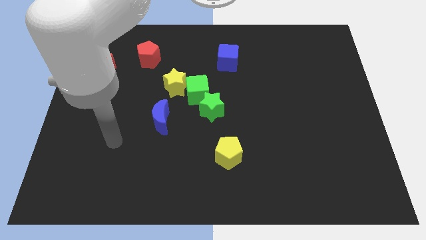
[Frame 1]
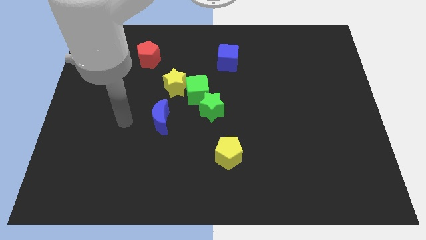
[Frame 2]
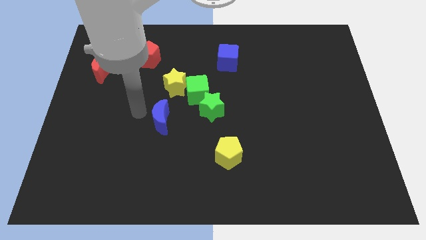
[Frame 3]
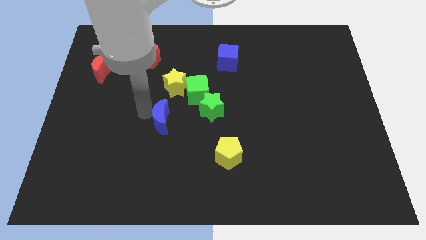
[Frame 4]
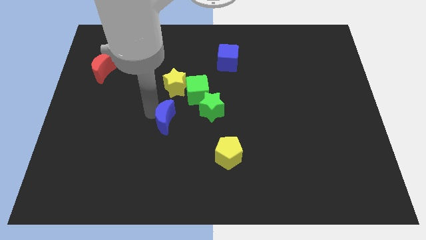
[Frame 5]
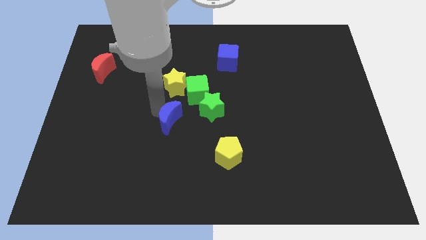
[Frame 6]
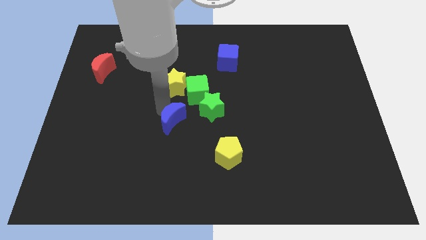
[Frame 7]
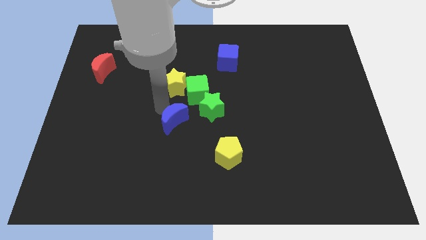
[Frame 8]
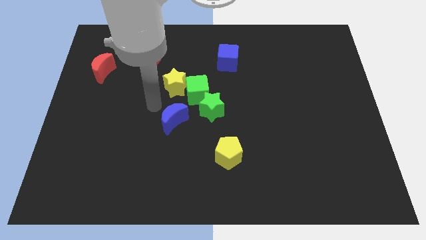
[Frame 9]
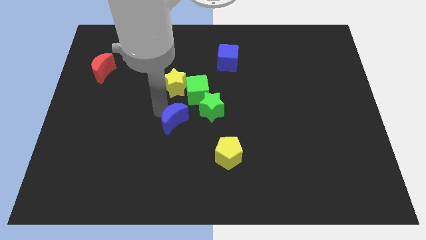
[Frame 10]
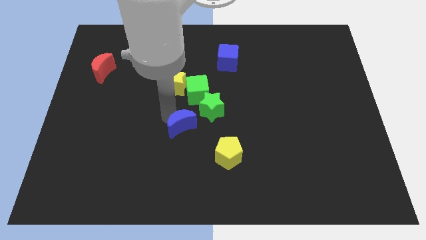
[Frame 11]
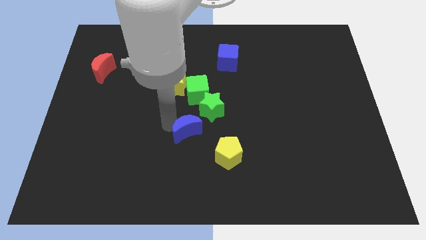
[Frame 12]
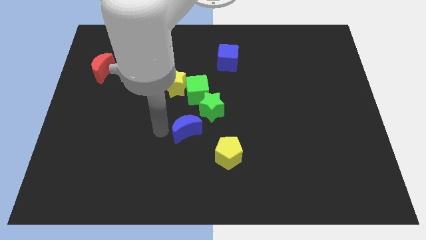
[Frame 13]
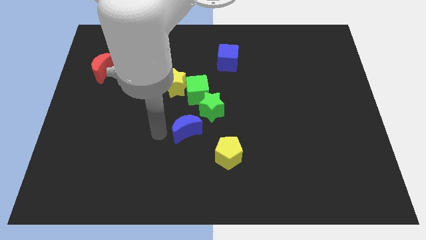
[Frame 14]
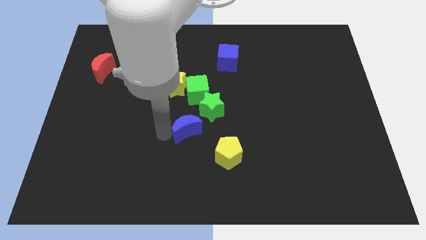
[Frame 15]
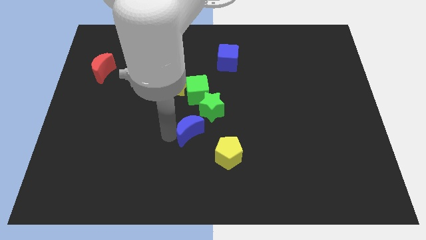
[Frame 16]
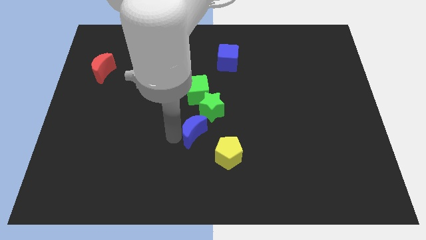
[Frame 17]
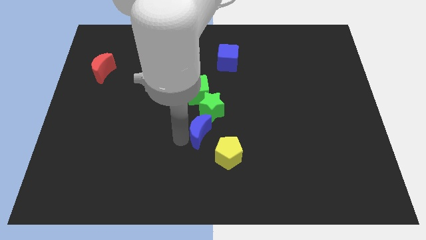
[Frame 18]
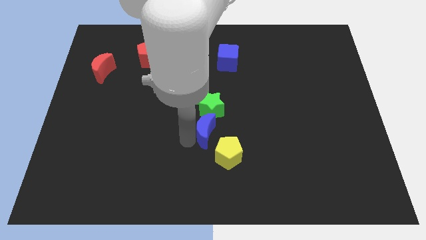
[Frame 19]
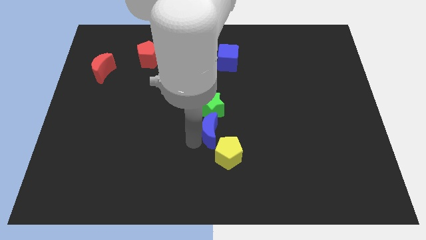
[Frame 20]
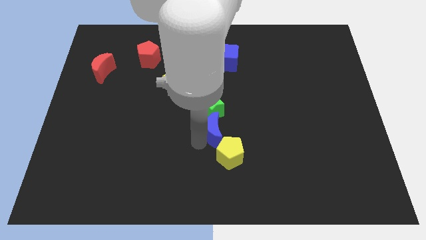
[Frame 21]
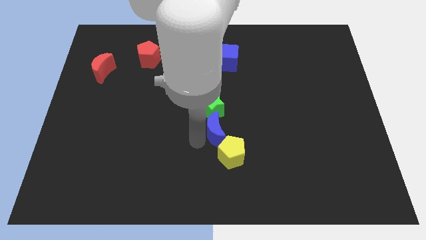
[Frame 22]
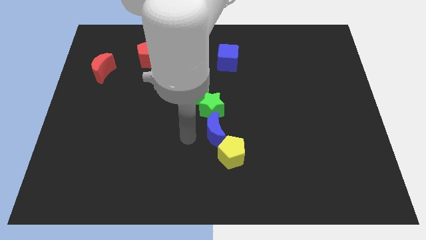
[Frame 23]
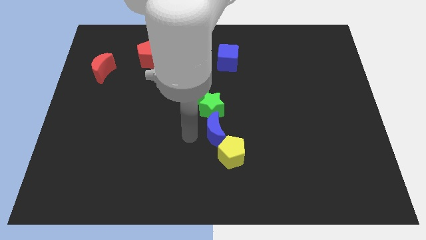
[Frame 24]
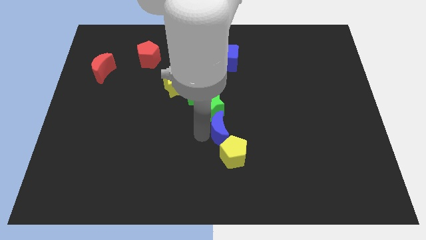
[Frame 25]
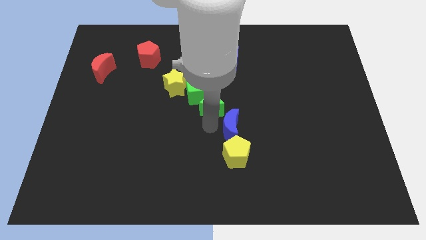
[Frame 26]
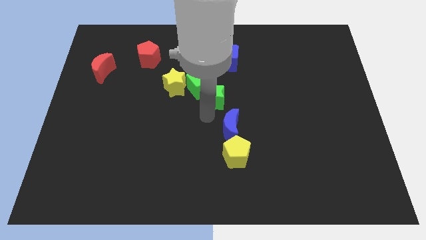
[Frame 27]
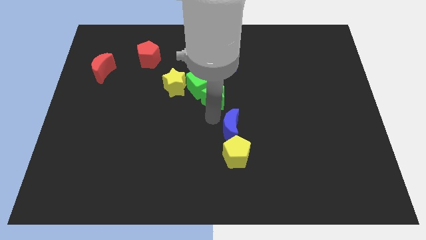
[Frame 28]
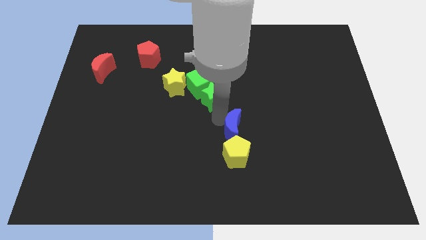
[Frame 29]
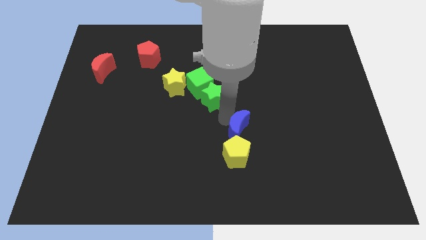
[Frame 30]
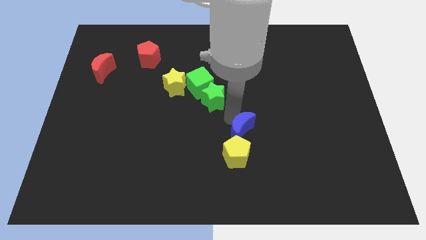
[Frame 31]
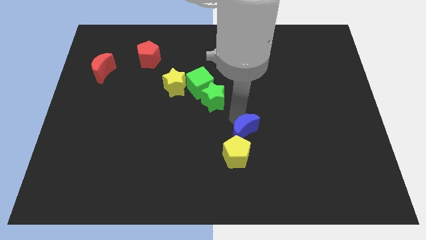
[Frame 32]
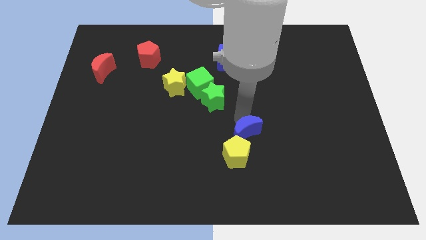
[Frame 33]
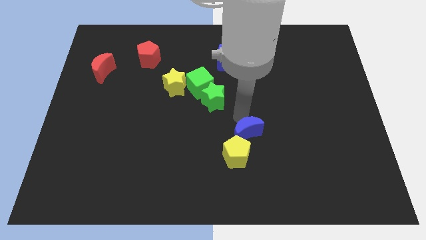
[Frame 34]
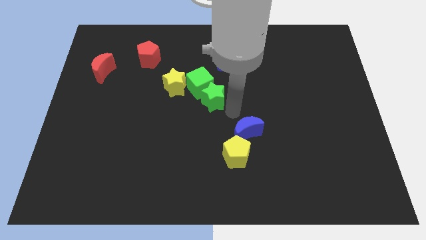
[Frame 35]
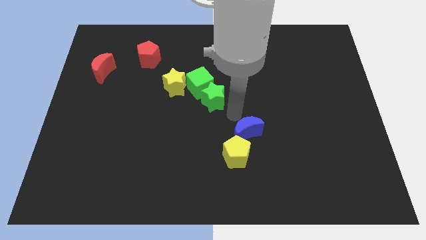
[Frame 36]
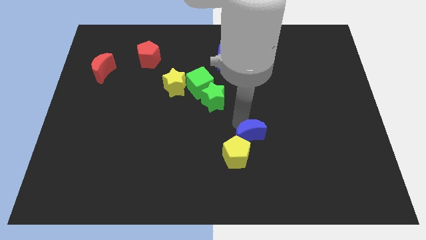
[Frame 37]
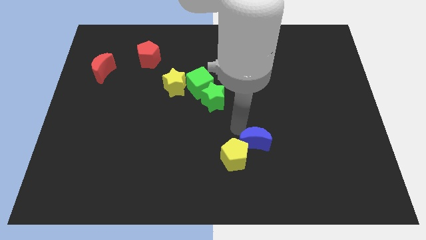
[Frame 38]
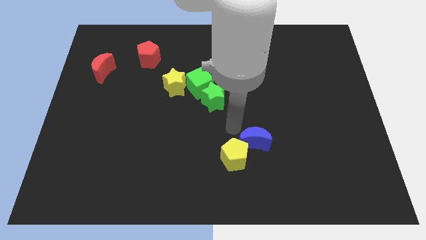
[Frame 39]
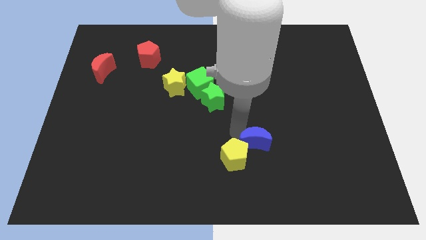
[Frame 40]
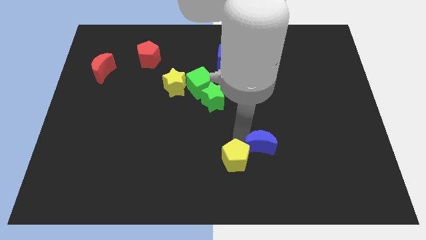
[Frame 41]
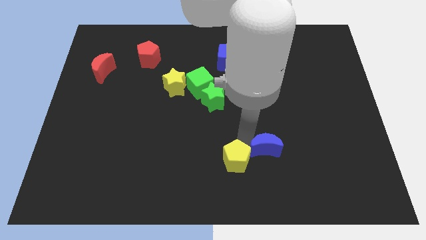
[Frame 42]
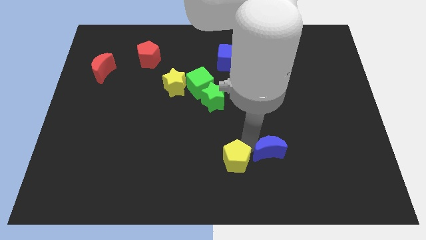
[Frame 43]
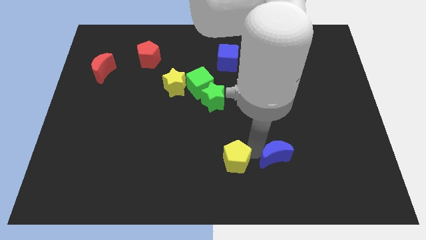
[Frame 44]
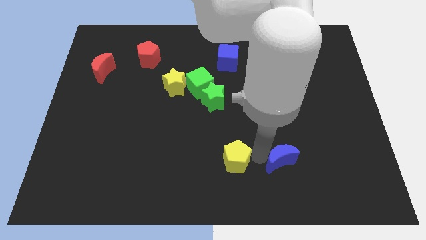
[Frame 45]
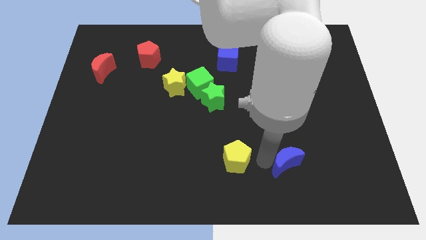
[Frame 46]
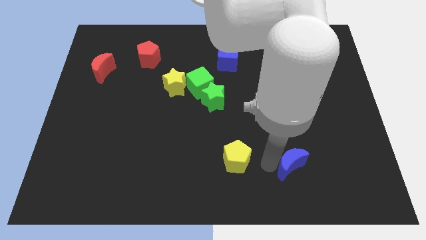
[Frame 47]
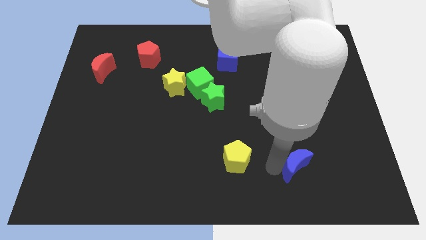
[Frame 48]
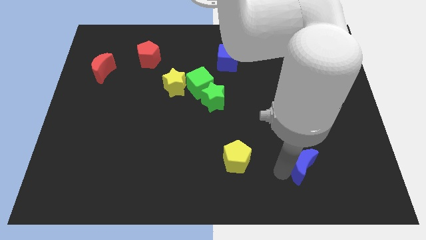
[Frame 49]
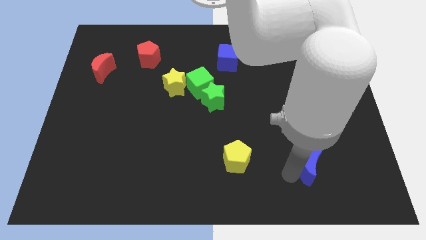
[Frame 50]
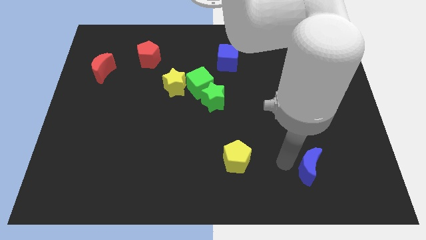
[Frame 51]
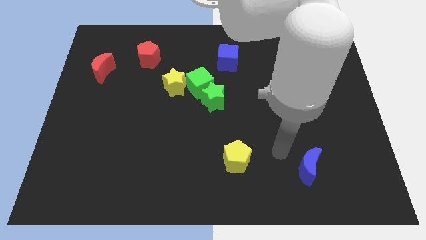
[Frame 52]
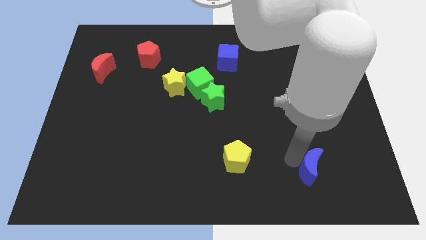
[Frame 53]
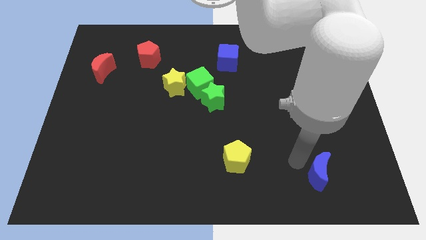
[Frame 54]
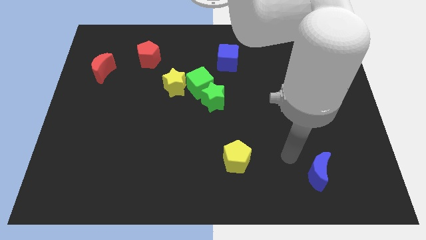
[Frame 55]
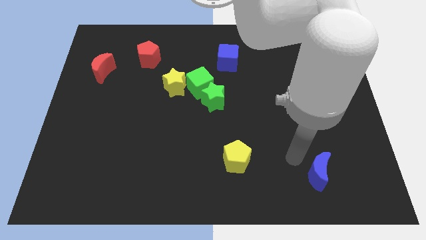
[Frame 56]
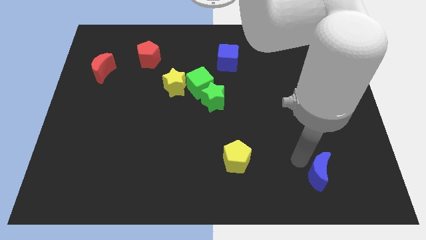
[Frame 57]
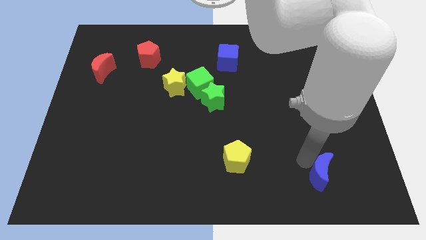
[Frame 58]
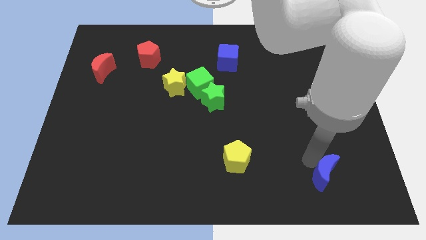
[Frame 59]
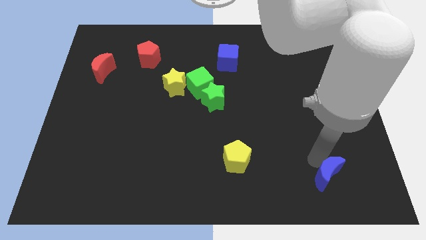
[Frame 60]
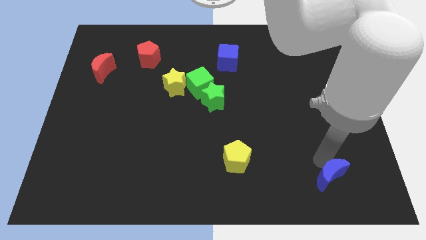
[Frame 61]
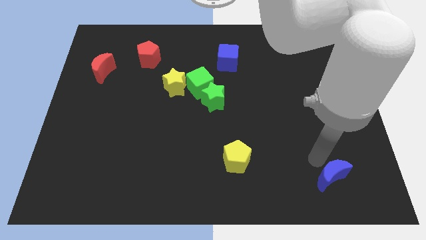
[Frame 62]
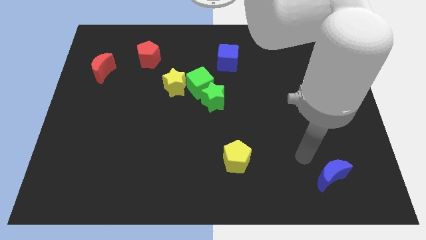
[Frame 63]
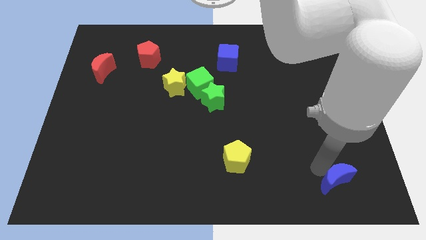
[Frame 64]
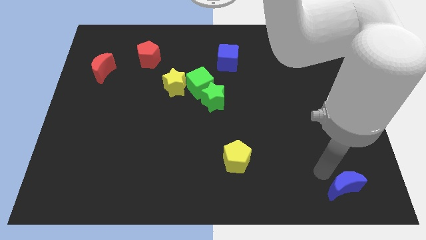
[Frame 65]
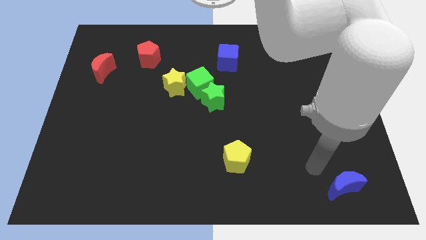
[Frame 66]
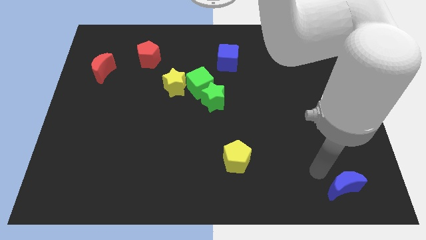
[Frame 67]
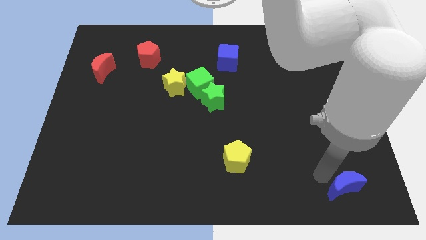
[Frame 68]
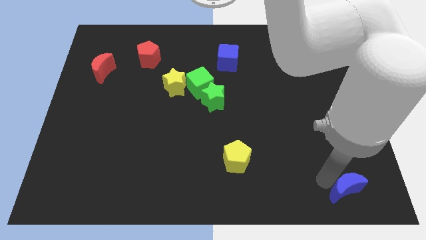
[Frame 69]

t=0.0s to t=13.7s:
put the blue moon to the bottom right of the board
